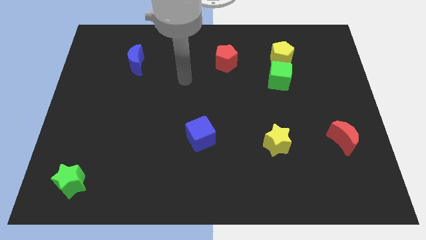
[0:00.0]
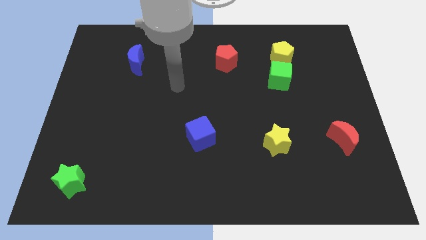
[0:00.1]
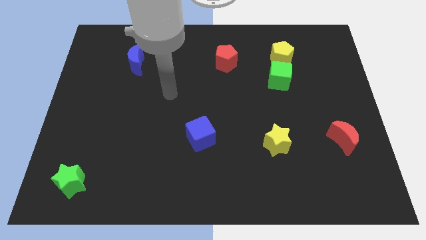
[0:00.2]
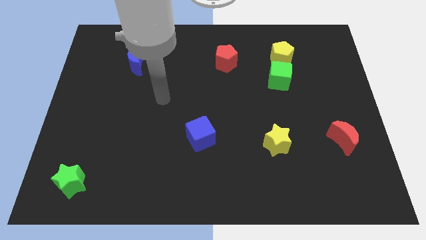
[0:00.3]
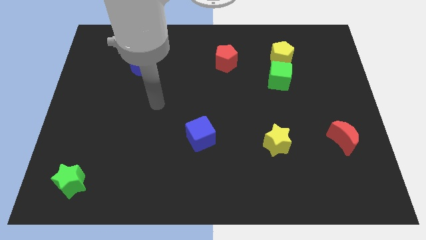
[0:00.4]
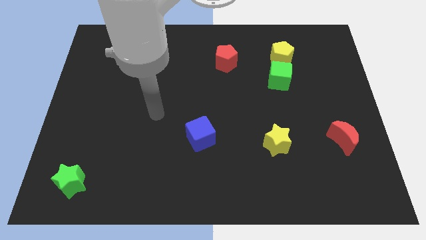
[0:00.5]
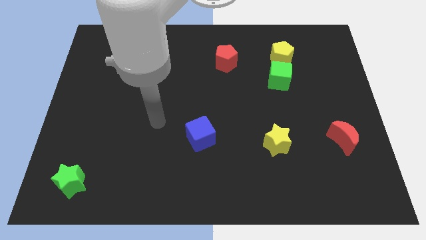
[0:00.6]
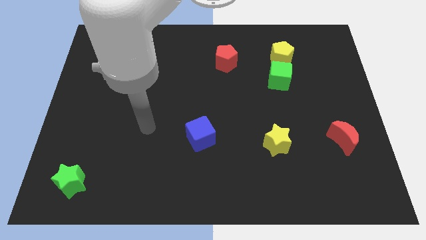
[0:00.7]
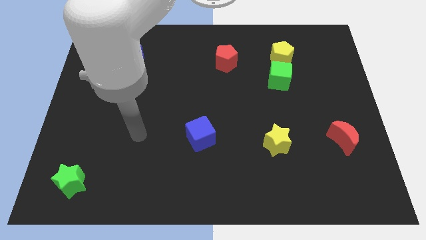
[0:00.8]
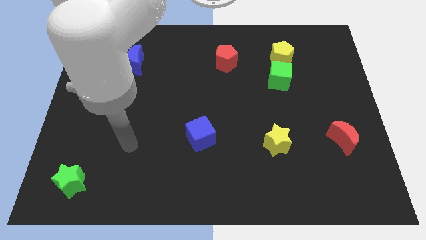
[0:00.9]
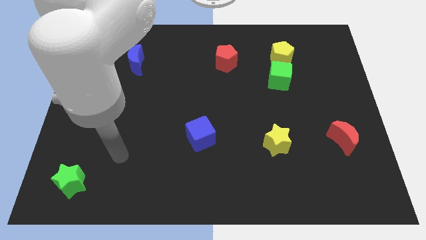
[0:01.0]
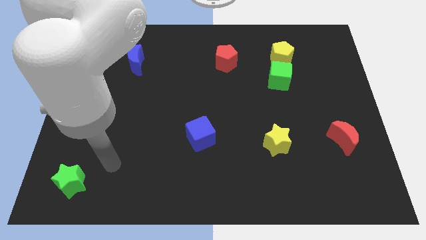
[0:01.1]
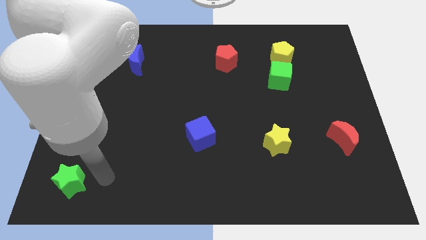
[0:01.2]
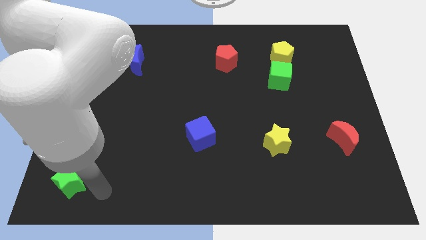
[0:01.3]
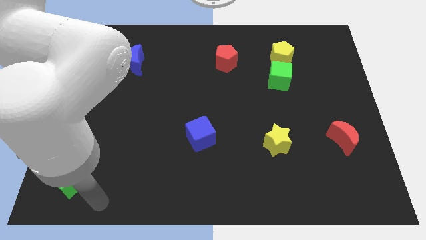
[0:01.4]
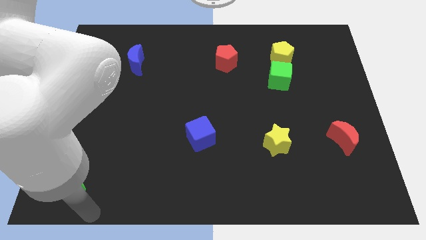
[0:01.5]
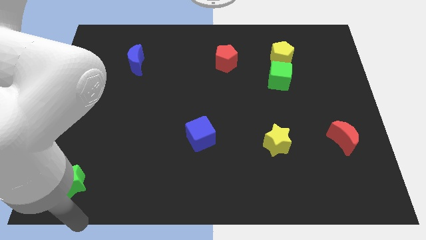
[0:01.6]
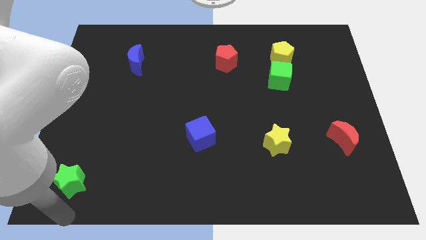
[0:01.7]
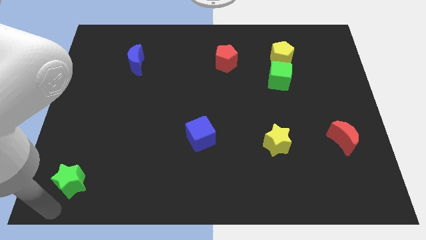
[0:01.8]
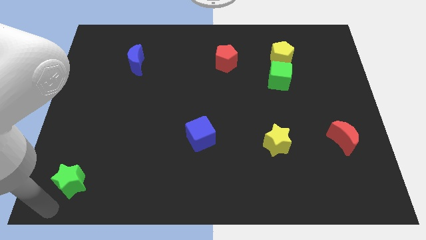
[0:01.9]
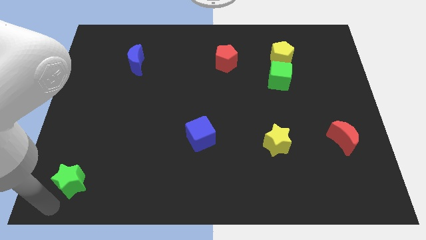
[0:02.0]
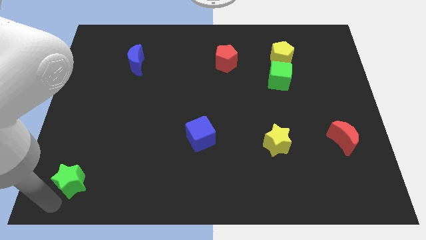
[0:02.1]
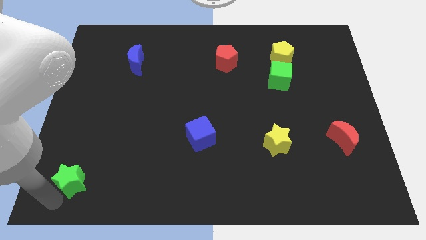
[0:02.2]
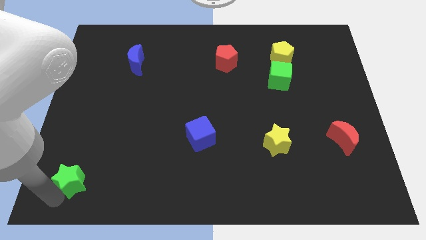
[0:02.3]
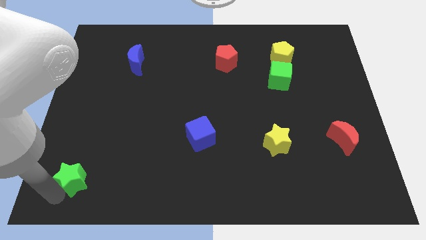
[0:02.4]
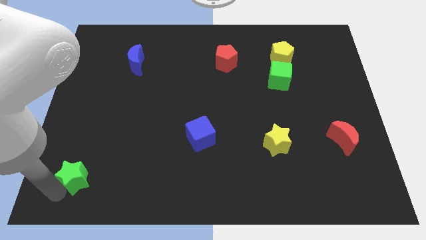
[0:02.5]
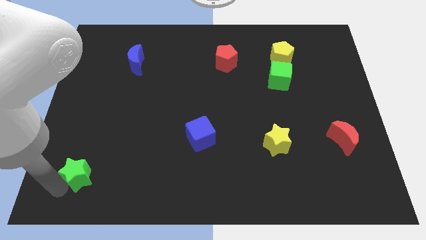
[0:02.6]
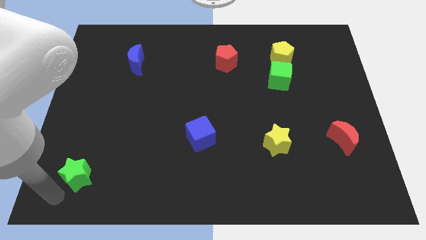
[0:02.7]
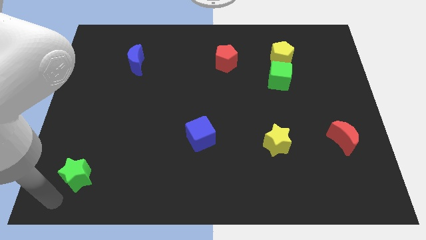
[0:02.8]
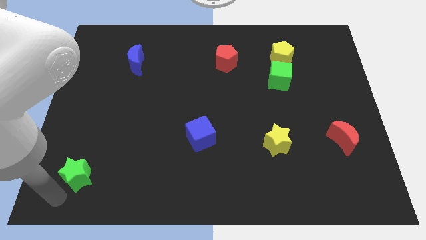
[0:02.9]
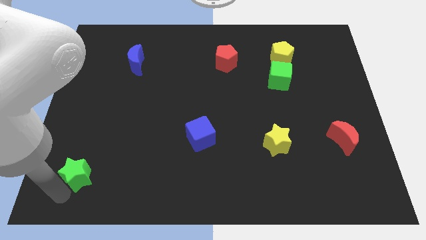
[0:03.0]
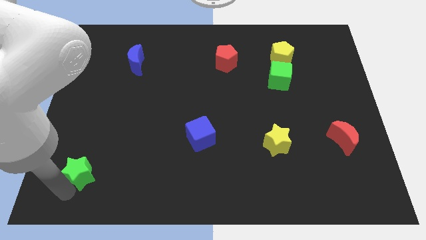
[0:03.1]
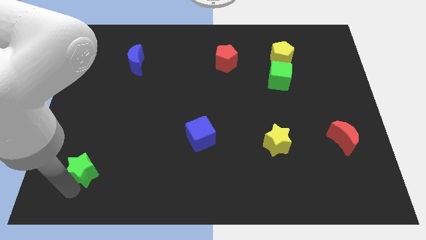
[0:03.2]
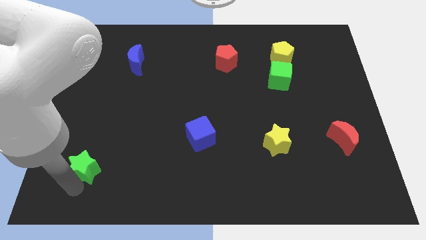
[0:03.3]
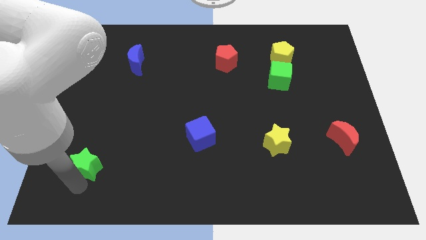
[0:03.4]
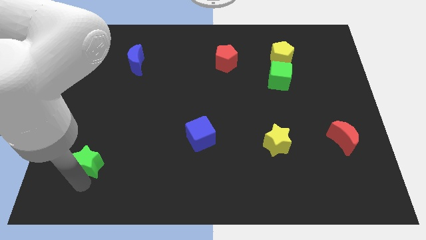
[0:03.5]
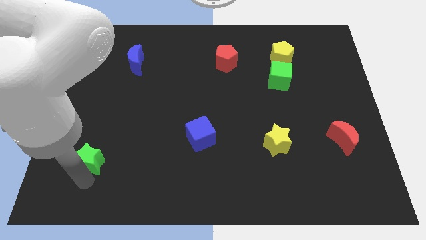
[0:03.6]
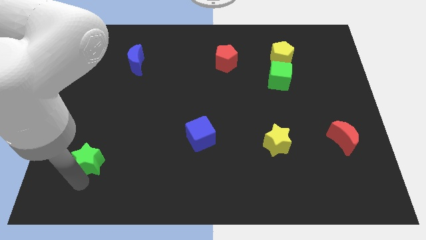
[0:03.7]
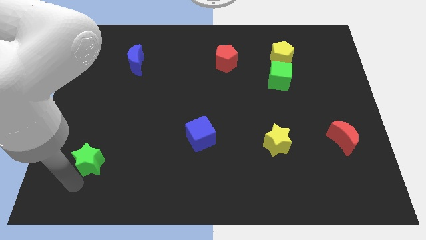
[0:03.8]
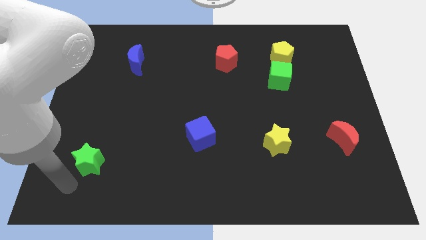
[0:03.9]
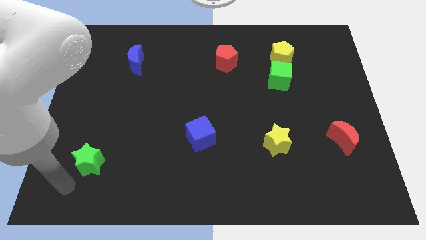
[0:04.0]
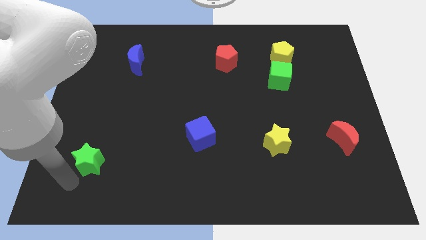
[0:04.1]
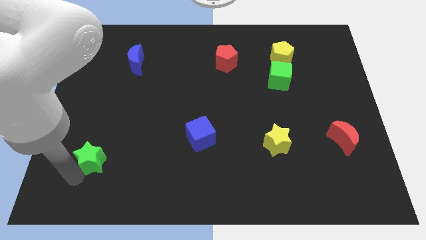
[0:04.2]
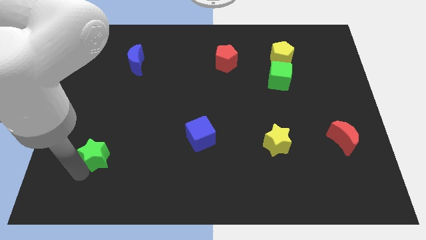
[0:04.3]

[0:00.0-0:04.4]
move the green star up and right slightly

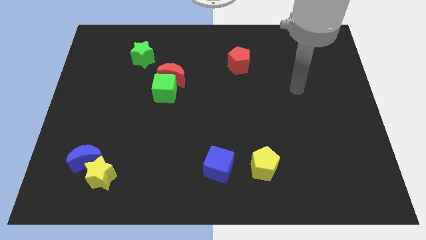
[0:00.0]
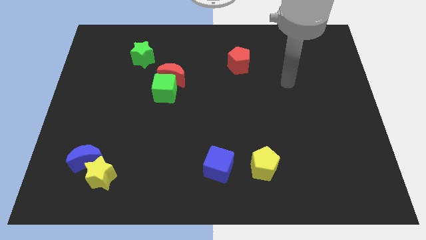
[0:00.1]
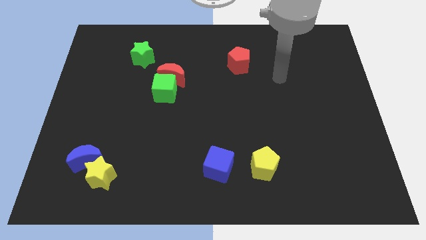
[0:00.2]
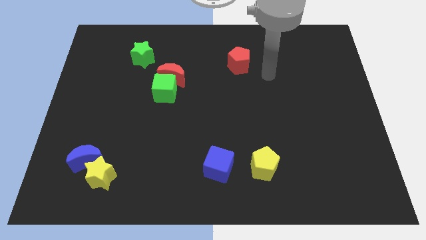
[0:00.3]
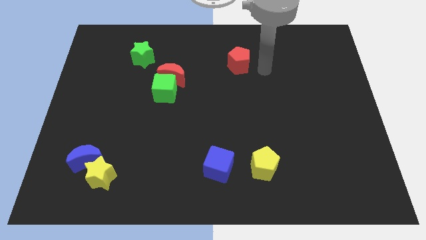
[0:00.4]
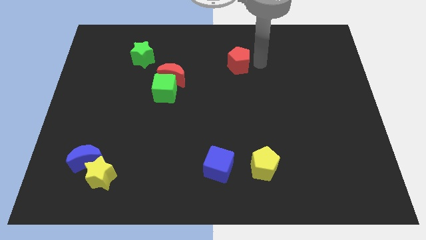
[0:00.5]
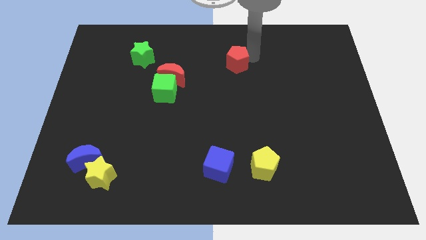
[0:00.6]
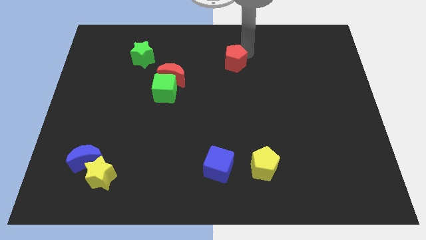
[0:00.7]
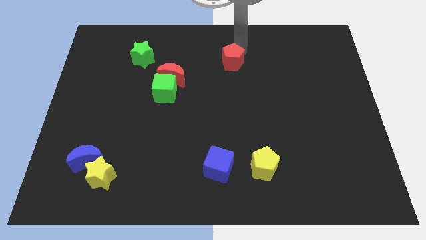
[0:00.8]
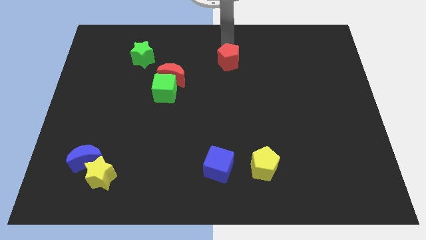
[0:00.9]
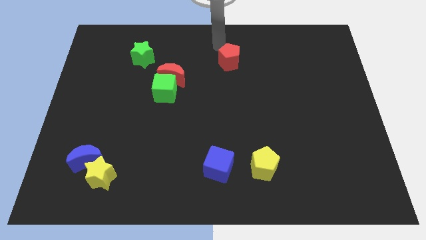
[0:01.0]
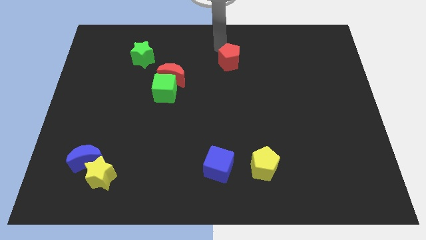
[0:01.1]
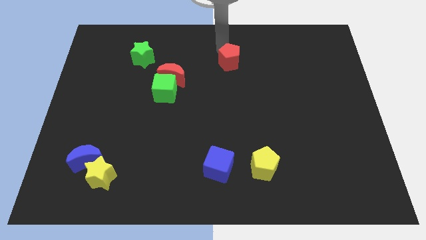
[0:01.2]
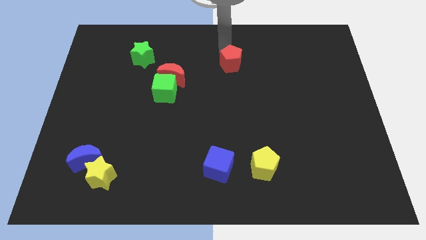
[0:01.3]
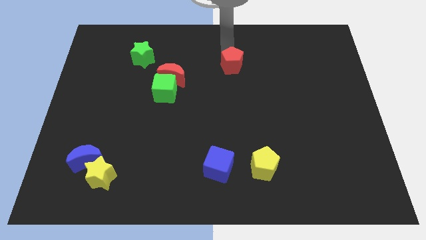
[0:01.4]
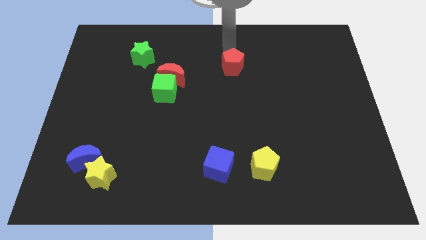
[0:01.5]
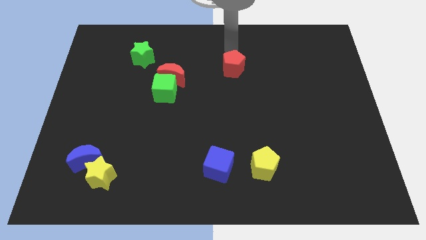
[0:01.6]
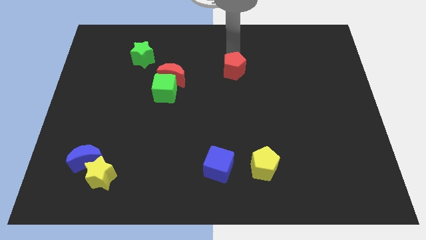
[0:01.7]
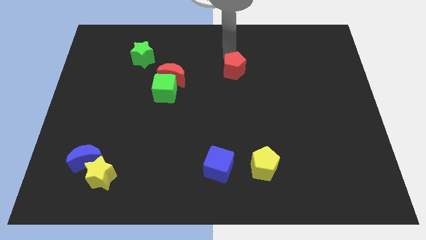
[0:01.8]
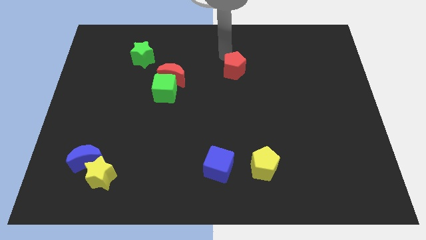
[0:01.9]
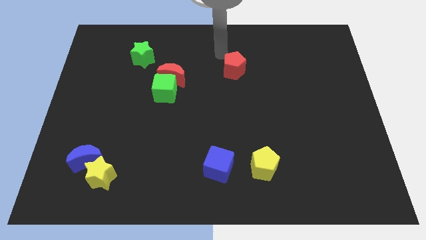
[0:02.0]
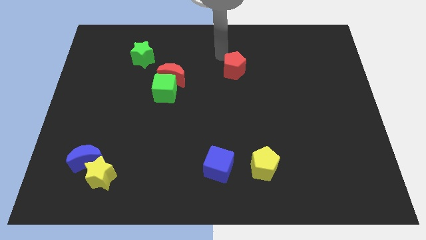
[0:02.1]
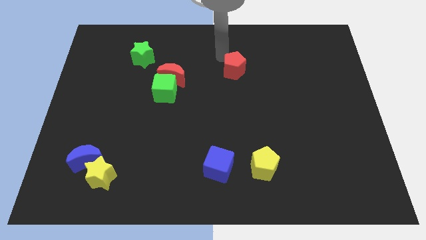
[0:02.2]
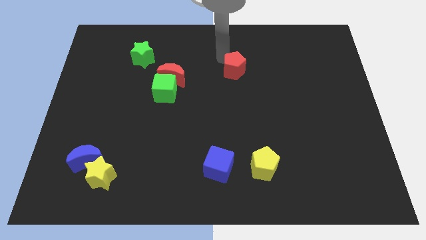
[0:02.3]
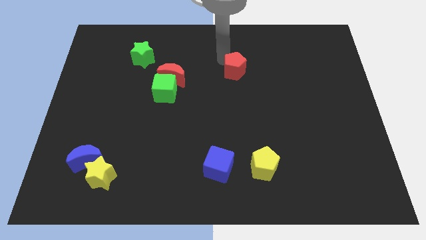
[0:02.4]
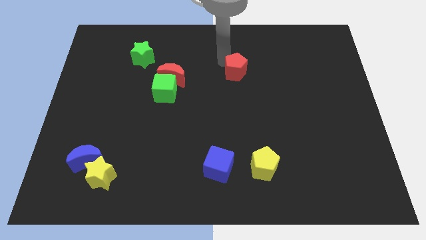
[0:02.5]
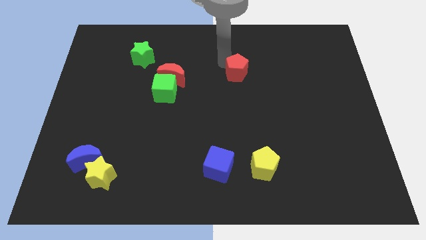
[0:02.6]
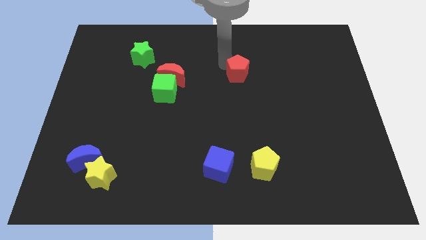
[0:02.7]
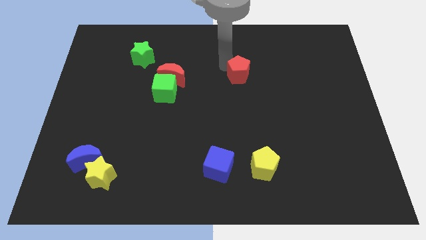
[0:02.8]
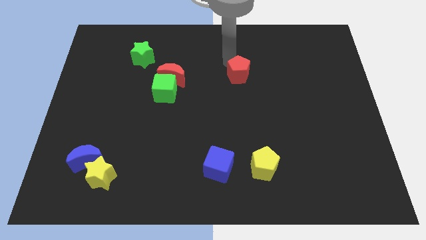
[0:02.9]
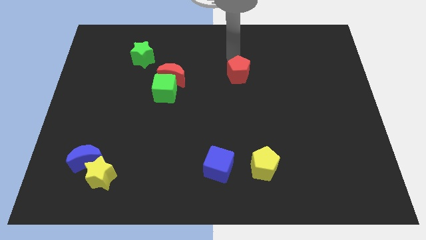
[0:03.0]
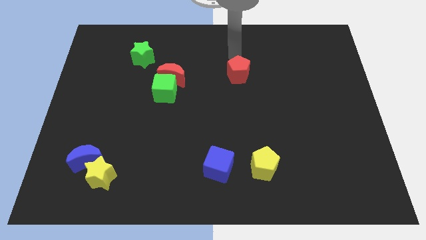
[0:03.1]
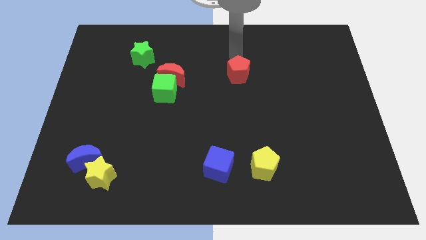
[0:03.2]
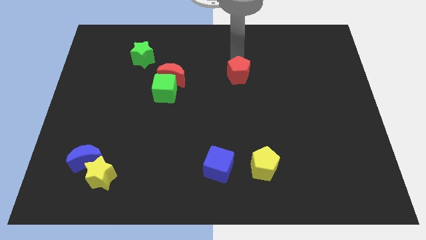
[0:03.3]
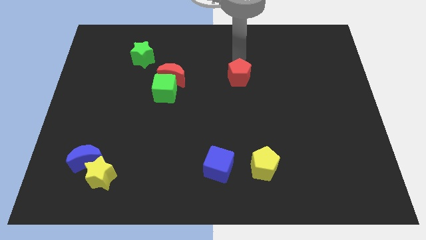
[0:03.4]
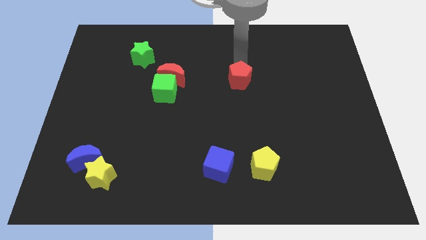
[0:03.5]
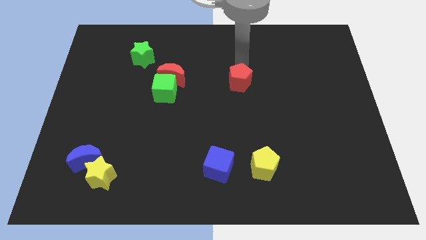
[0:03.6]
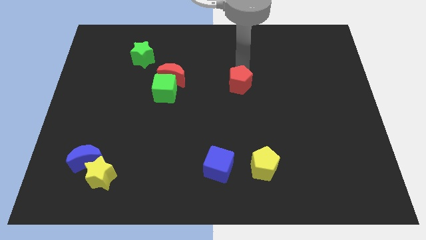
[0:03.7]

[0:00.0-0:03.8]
move the red pentagon downwards a little
